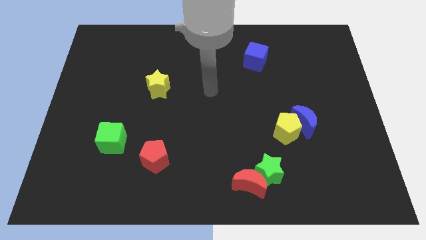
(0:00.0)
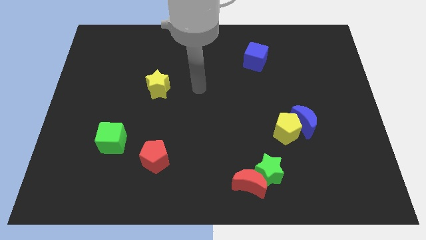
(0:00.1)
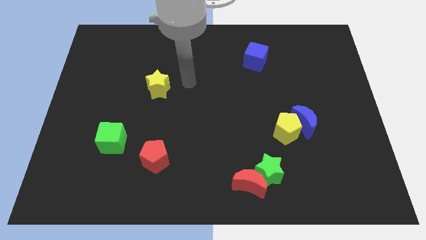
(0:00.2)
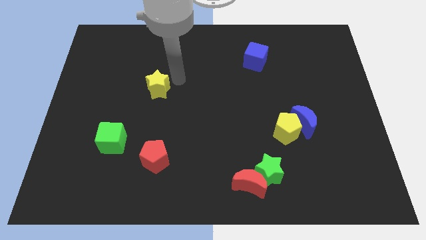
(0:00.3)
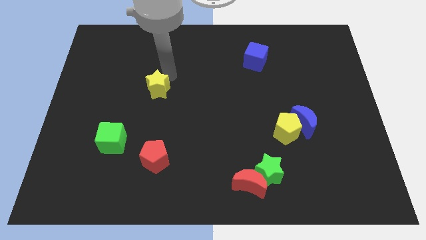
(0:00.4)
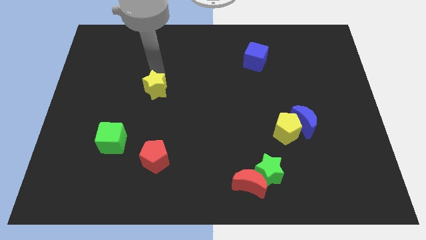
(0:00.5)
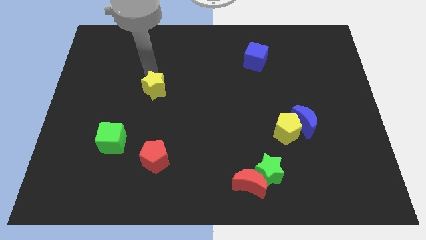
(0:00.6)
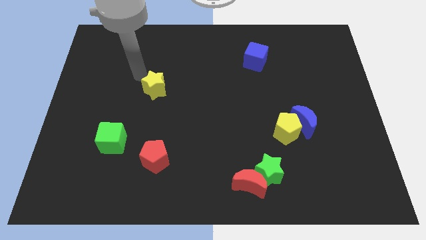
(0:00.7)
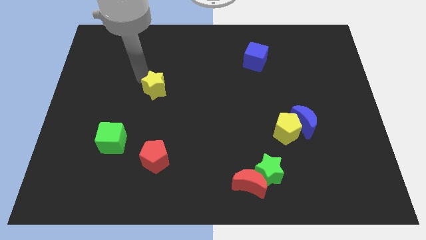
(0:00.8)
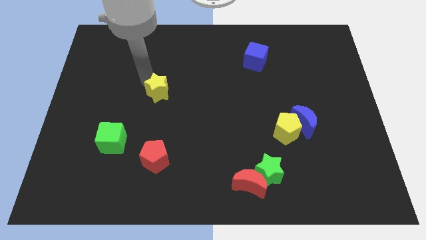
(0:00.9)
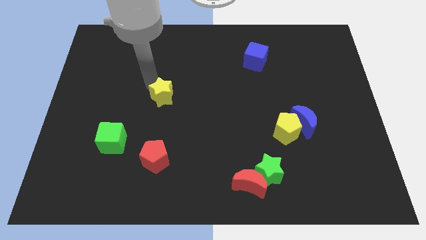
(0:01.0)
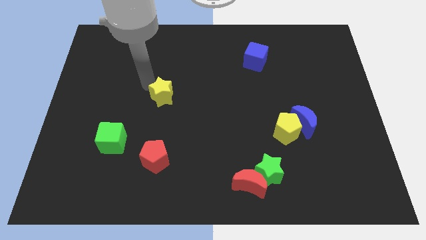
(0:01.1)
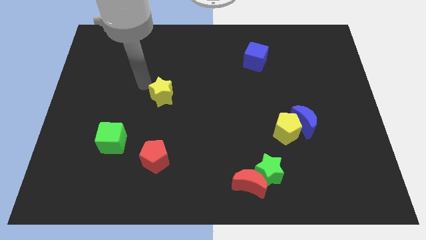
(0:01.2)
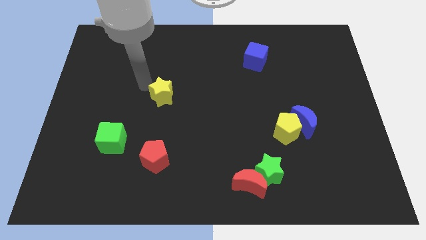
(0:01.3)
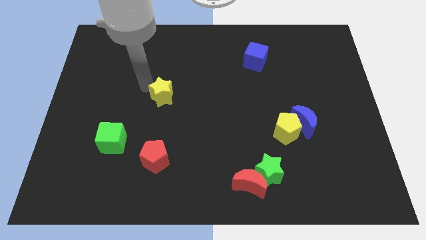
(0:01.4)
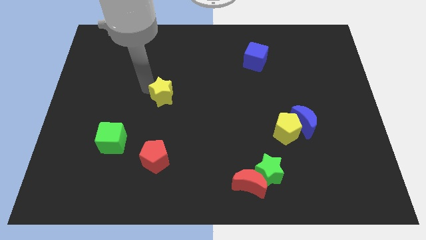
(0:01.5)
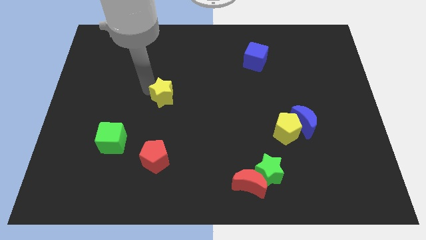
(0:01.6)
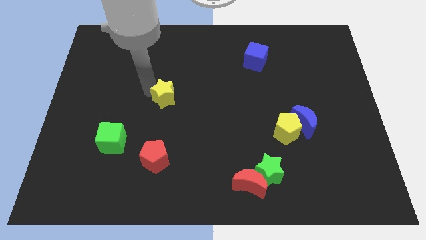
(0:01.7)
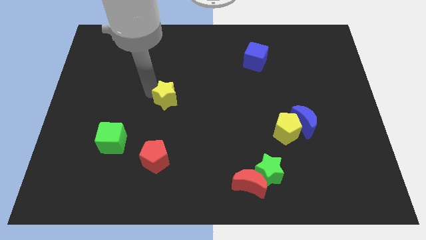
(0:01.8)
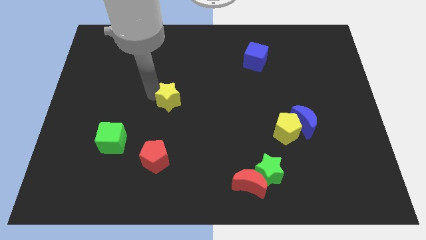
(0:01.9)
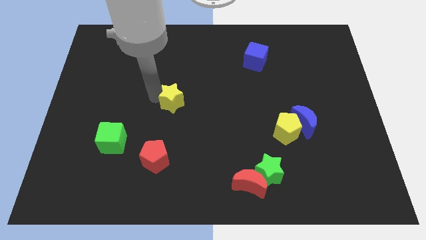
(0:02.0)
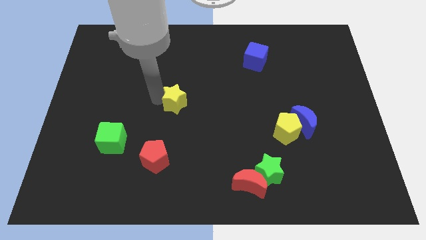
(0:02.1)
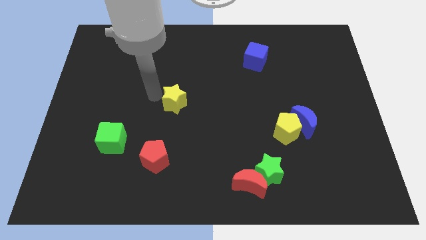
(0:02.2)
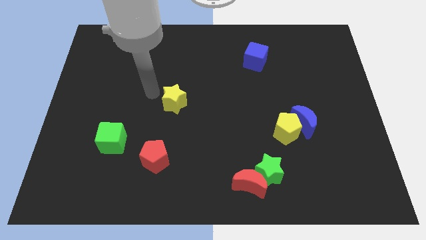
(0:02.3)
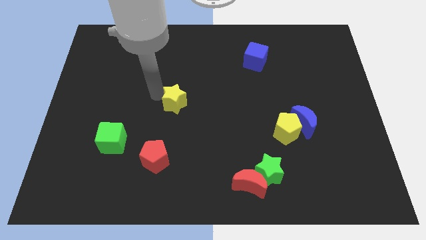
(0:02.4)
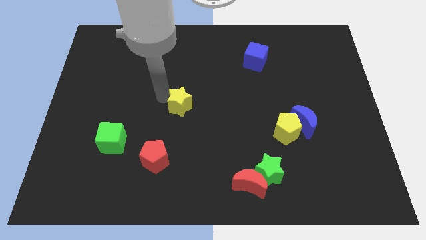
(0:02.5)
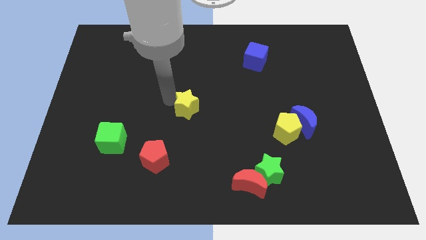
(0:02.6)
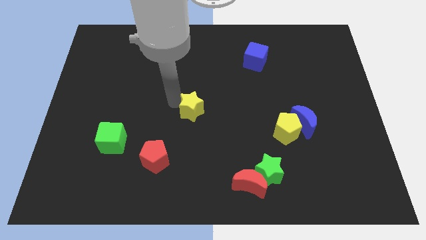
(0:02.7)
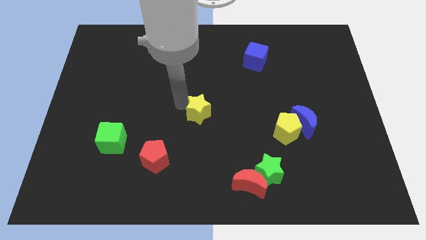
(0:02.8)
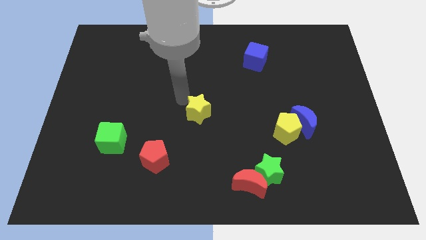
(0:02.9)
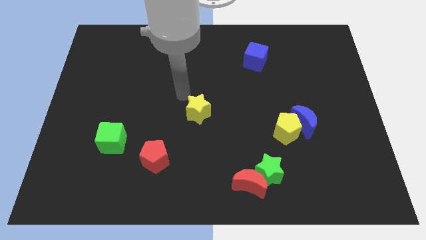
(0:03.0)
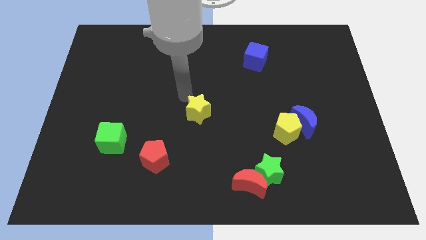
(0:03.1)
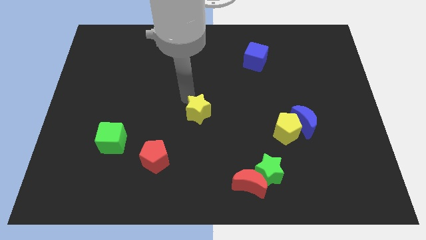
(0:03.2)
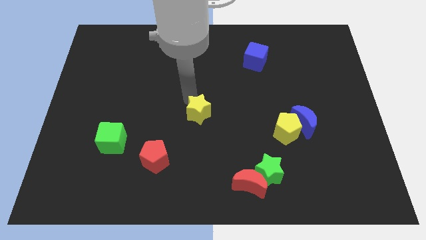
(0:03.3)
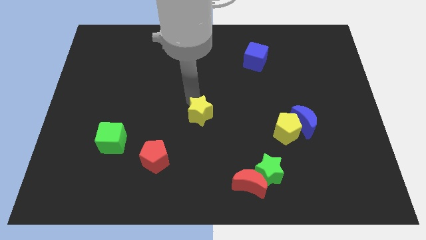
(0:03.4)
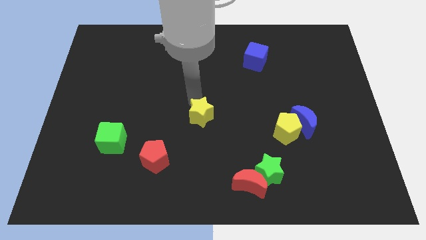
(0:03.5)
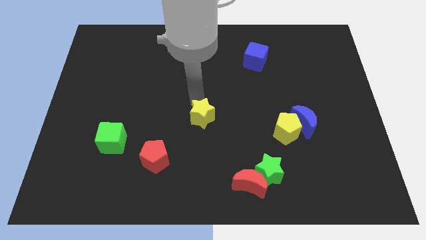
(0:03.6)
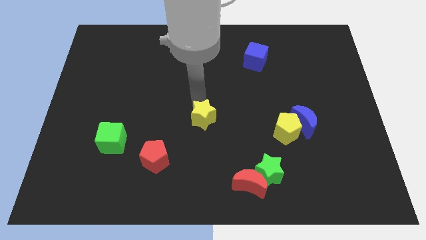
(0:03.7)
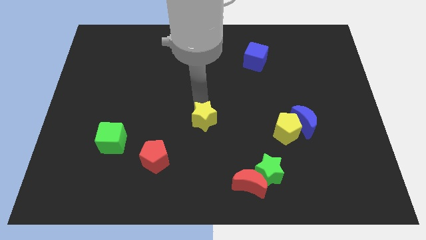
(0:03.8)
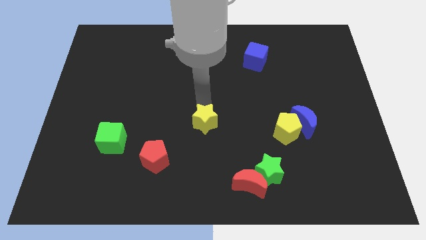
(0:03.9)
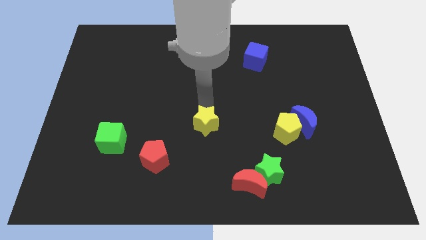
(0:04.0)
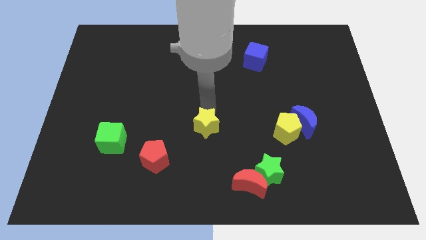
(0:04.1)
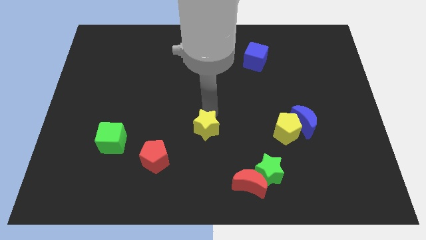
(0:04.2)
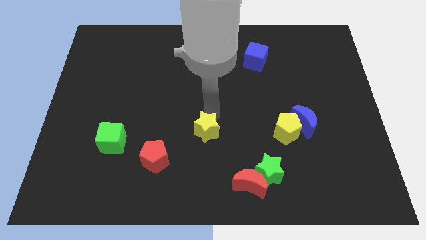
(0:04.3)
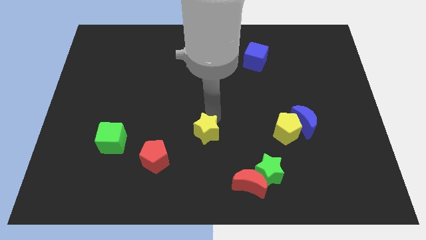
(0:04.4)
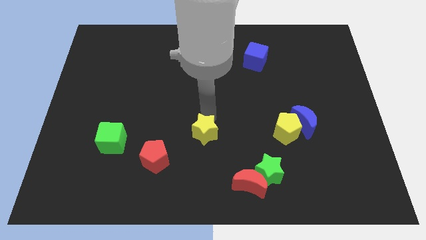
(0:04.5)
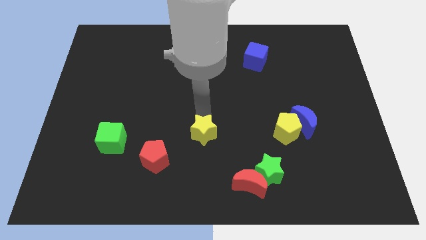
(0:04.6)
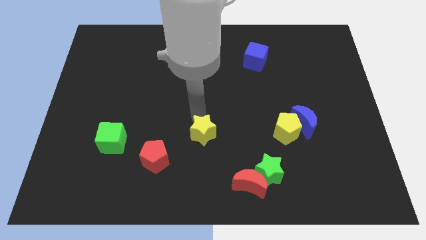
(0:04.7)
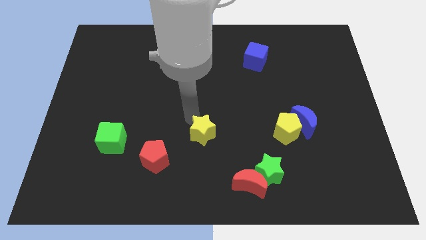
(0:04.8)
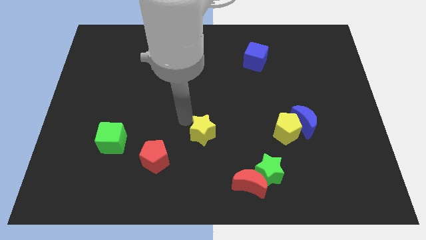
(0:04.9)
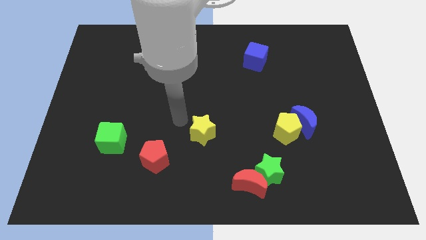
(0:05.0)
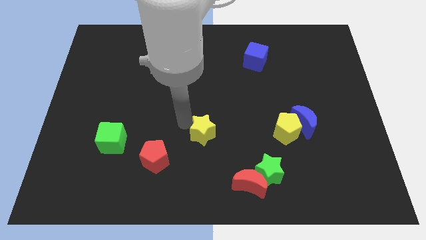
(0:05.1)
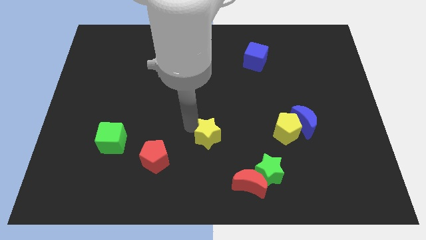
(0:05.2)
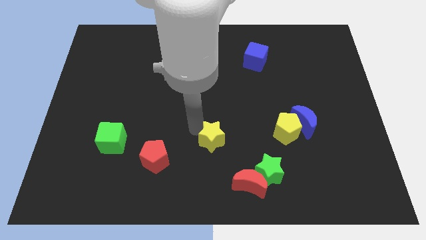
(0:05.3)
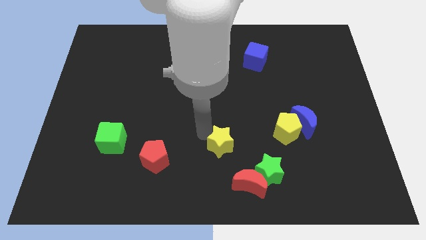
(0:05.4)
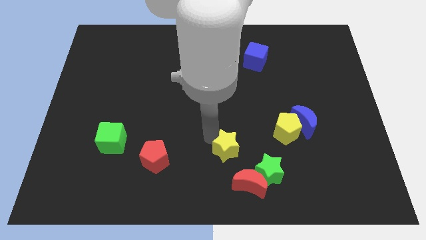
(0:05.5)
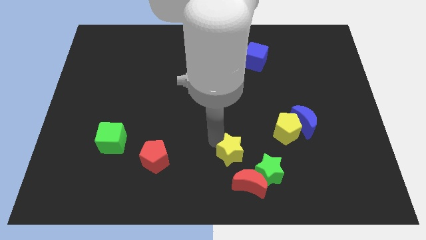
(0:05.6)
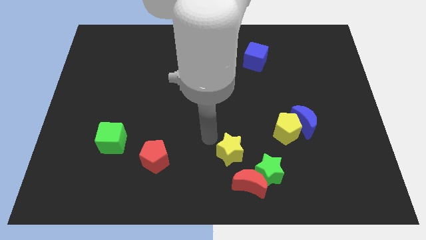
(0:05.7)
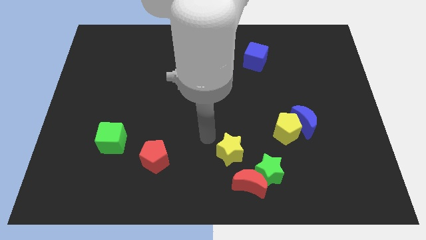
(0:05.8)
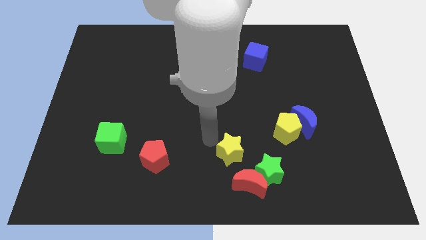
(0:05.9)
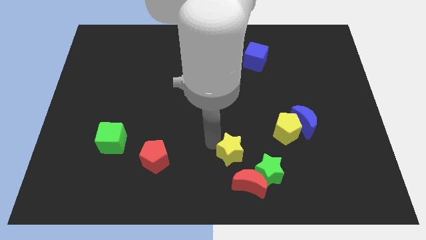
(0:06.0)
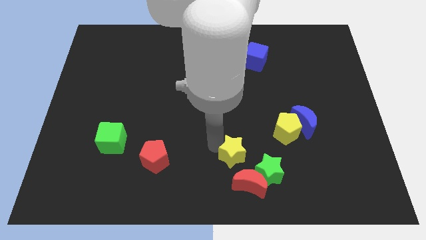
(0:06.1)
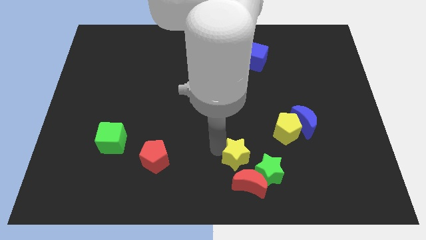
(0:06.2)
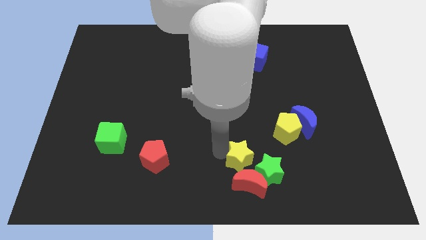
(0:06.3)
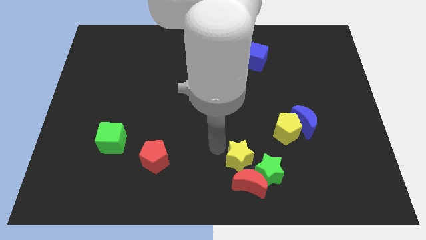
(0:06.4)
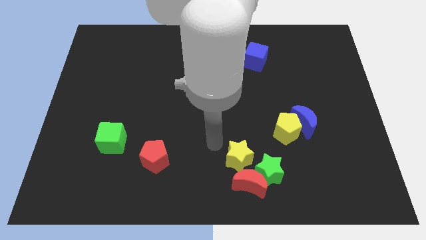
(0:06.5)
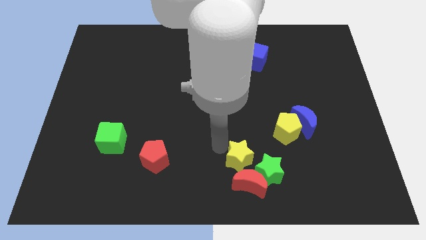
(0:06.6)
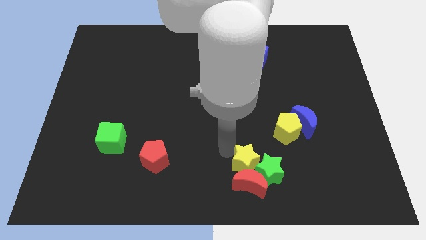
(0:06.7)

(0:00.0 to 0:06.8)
slide the yellow star towards the green star
